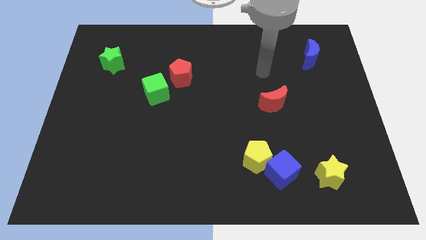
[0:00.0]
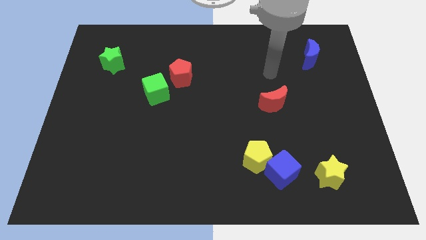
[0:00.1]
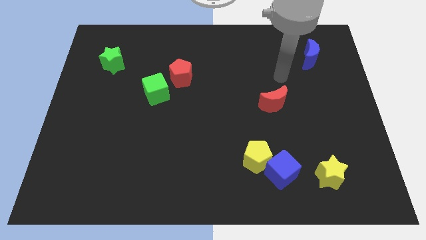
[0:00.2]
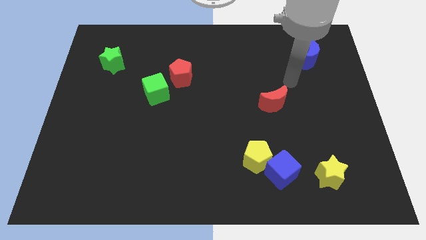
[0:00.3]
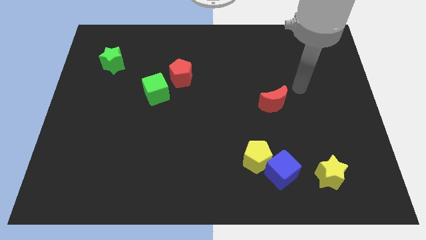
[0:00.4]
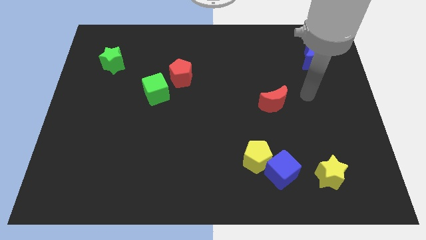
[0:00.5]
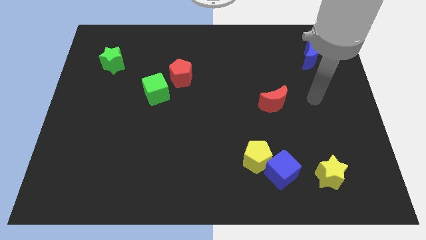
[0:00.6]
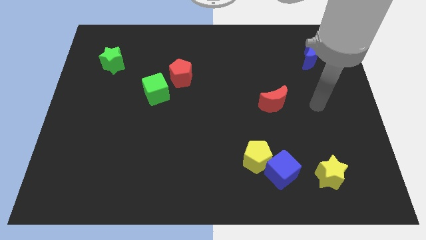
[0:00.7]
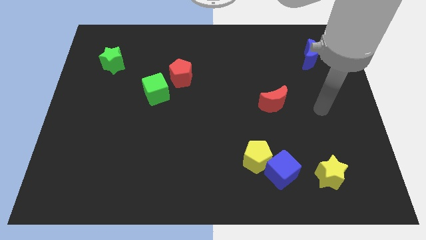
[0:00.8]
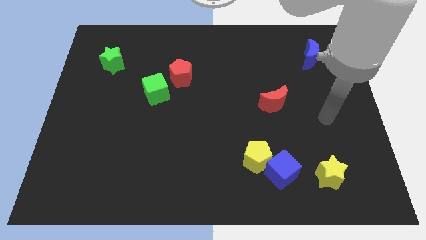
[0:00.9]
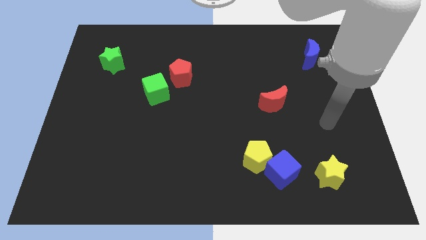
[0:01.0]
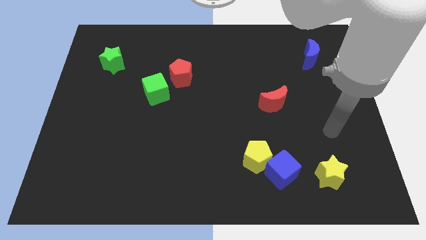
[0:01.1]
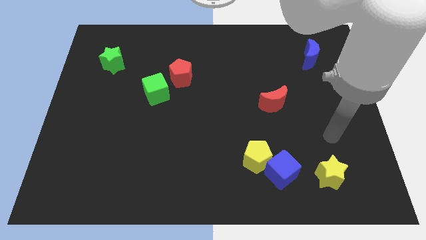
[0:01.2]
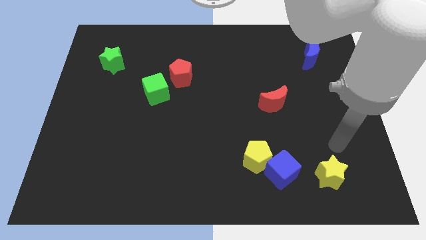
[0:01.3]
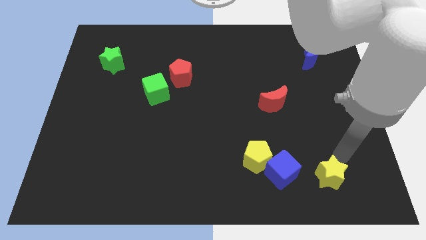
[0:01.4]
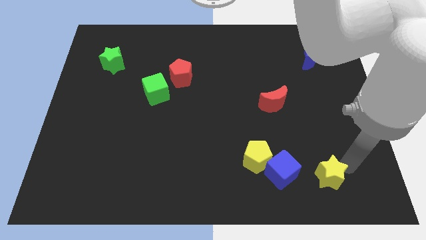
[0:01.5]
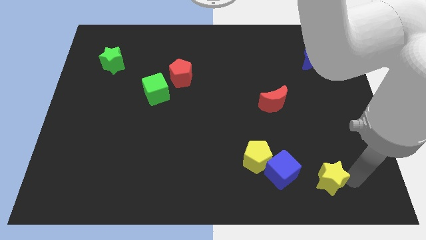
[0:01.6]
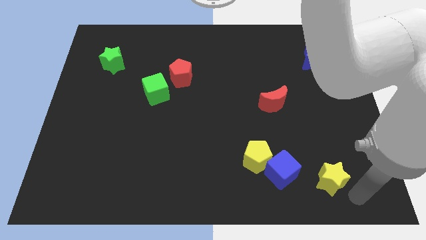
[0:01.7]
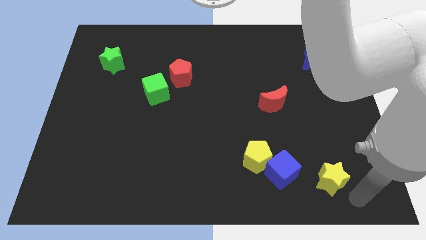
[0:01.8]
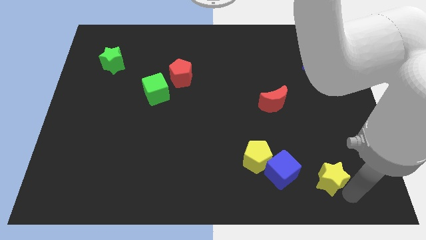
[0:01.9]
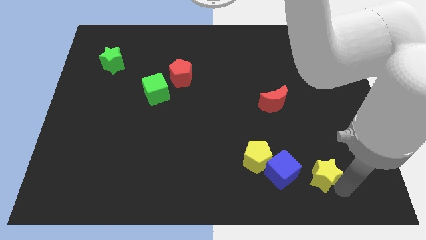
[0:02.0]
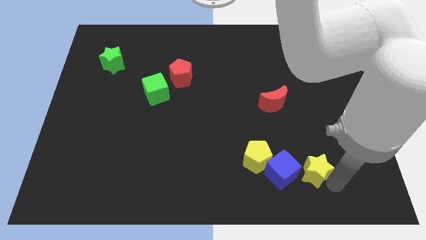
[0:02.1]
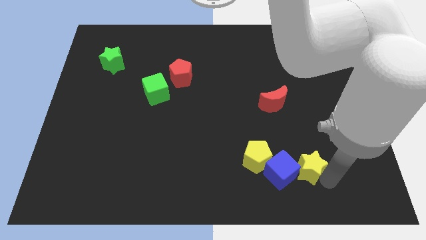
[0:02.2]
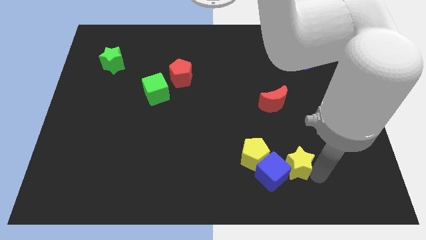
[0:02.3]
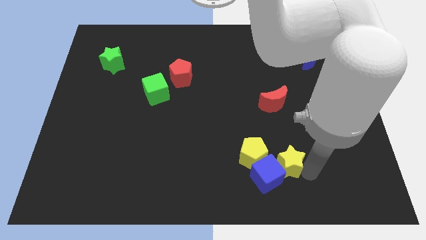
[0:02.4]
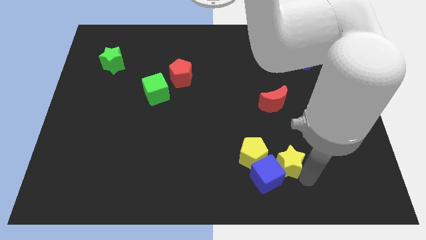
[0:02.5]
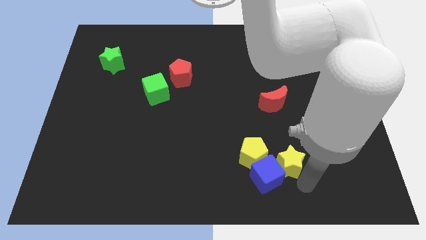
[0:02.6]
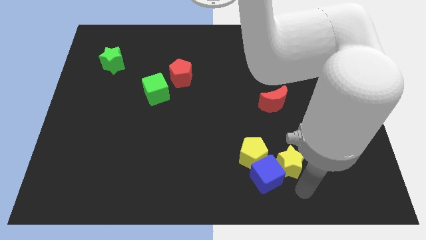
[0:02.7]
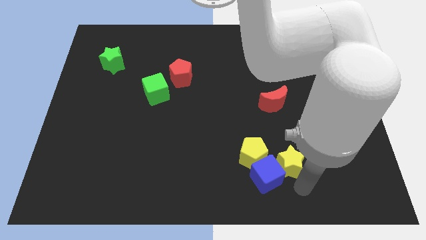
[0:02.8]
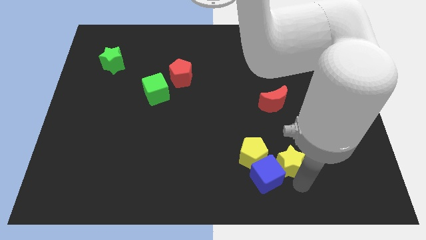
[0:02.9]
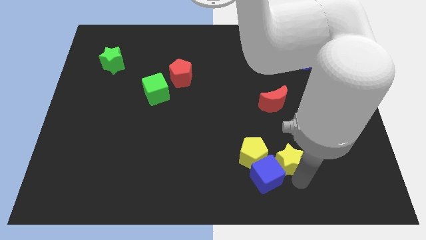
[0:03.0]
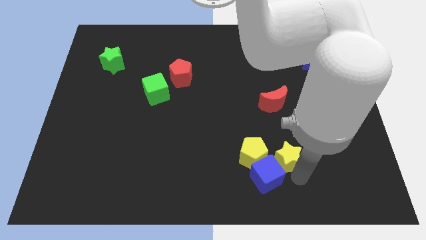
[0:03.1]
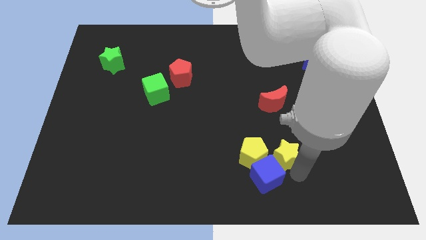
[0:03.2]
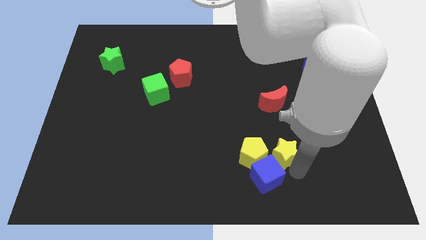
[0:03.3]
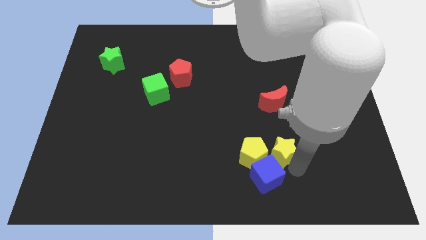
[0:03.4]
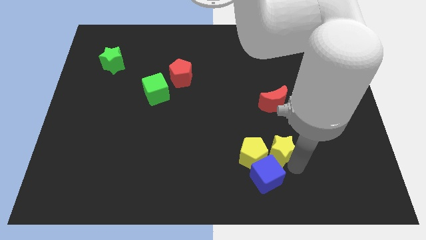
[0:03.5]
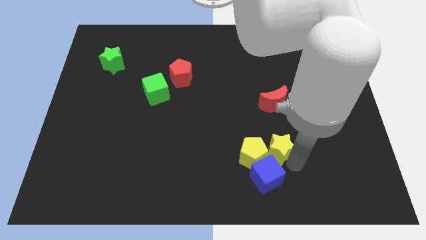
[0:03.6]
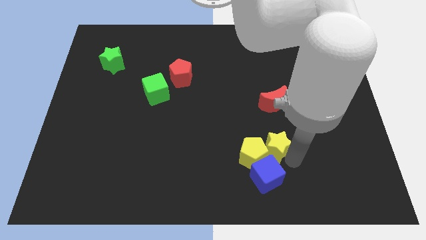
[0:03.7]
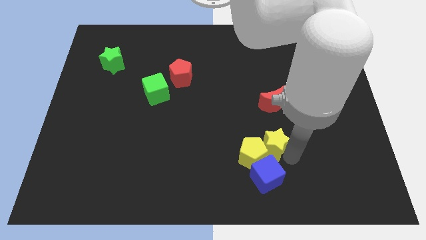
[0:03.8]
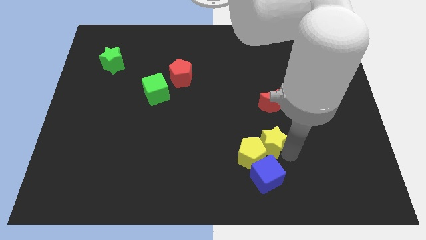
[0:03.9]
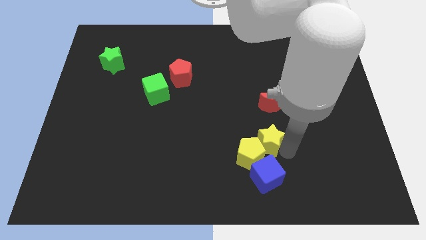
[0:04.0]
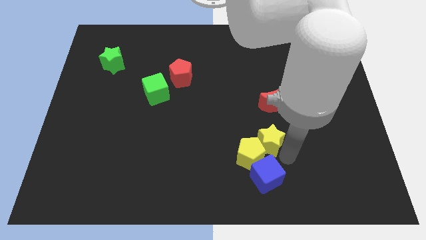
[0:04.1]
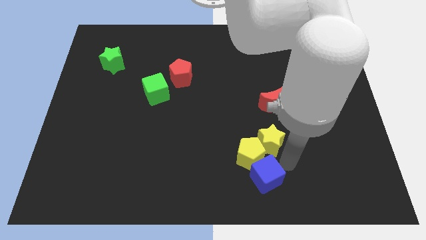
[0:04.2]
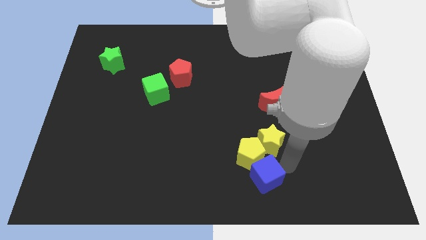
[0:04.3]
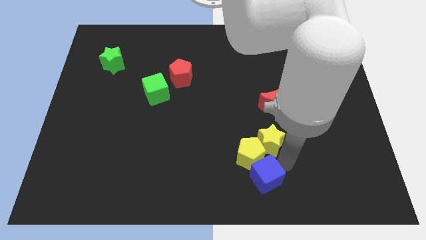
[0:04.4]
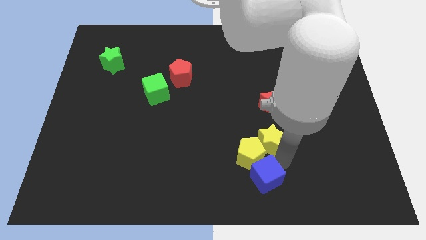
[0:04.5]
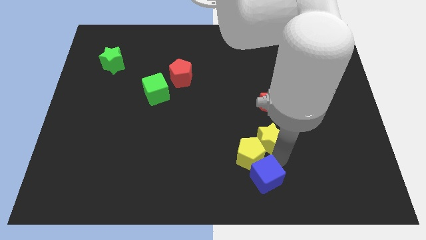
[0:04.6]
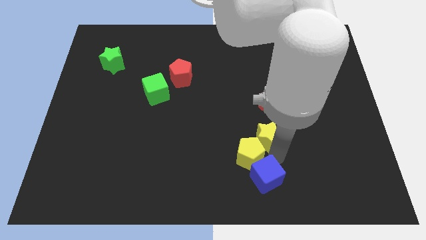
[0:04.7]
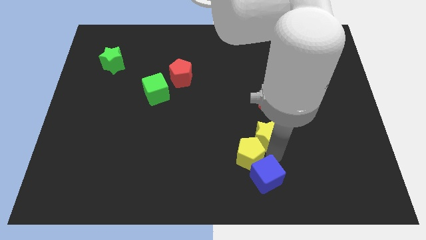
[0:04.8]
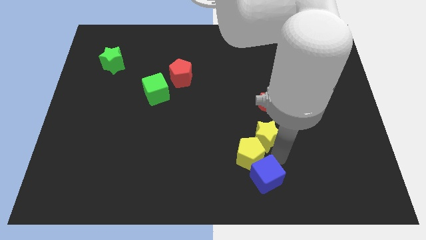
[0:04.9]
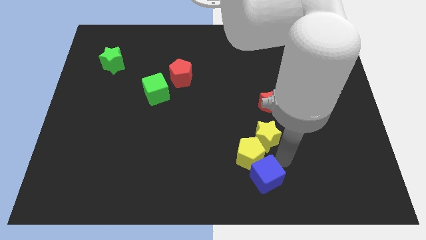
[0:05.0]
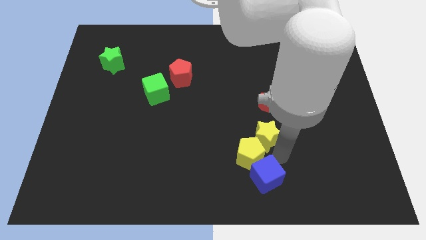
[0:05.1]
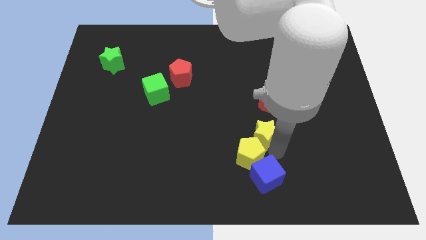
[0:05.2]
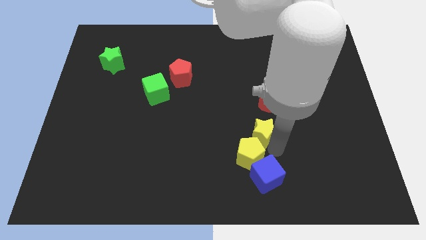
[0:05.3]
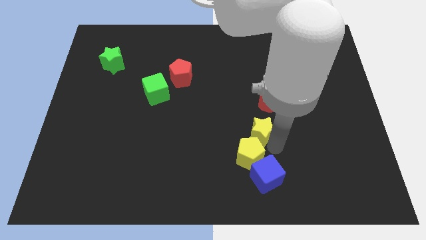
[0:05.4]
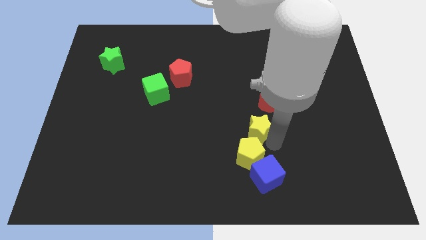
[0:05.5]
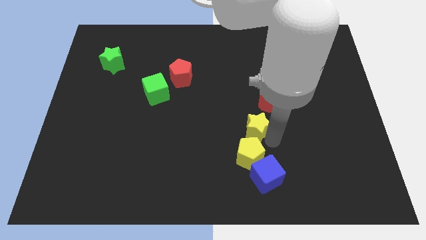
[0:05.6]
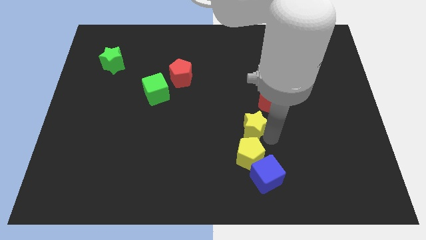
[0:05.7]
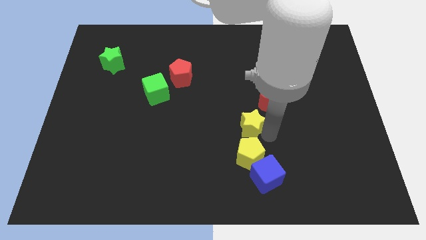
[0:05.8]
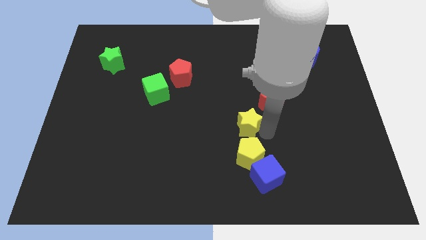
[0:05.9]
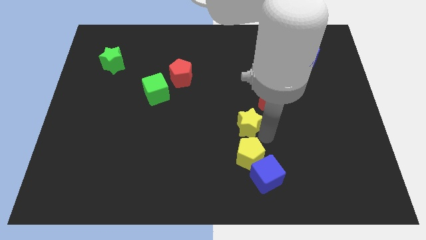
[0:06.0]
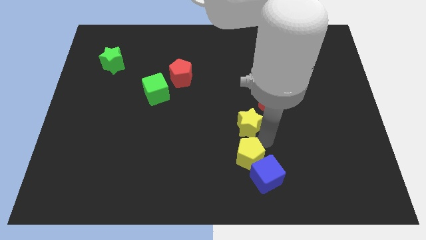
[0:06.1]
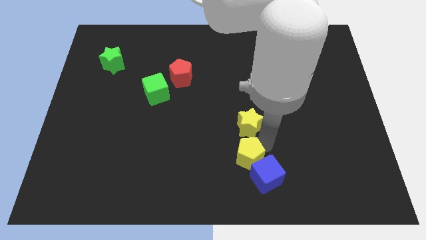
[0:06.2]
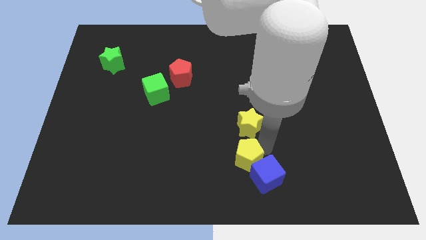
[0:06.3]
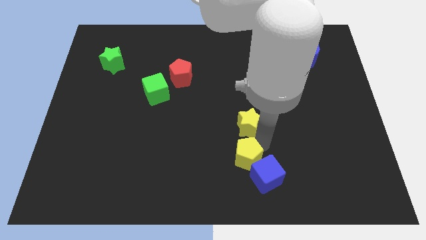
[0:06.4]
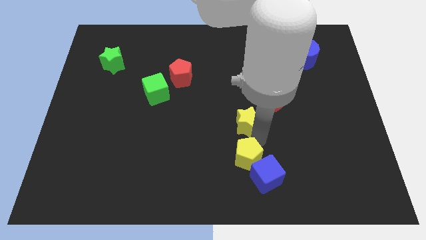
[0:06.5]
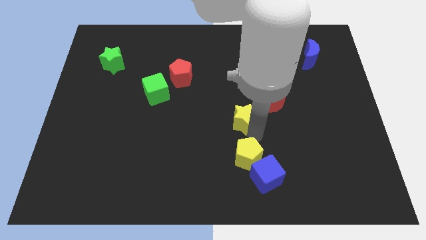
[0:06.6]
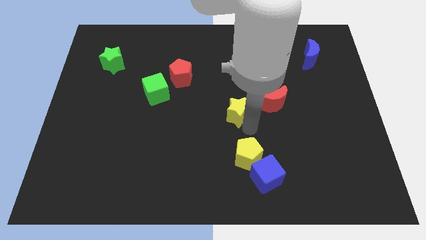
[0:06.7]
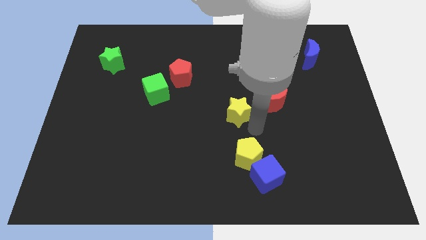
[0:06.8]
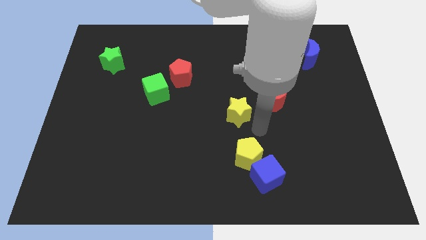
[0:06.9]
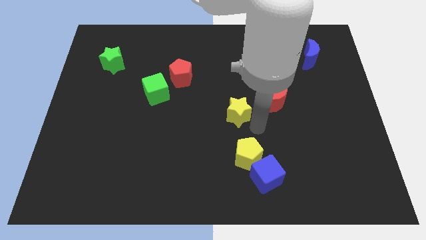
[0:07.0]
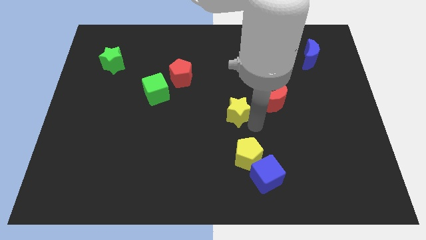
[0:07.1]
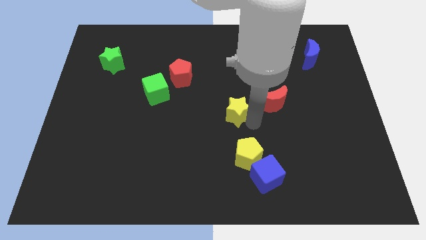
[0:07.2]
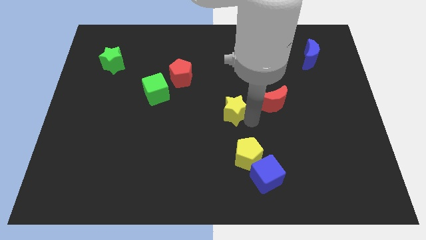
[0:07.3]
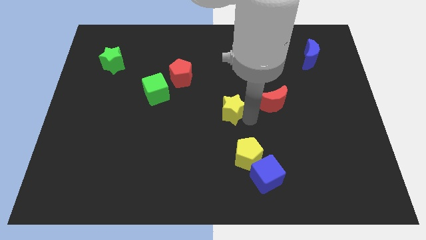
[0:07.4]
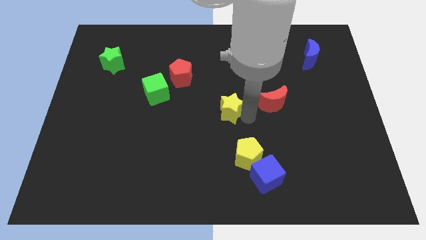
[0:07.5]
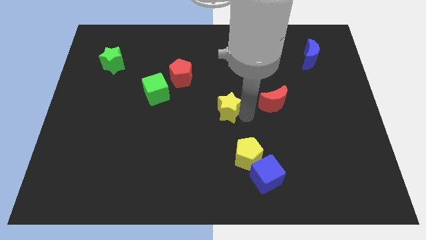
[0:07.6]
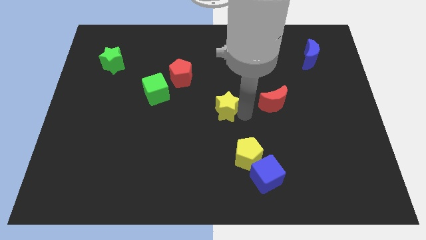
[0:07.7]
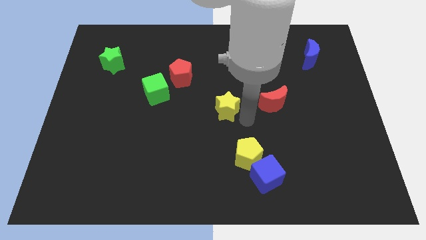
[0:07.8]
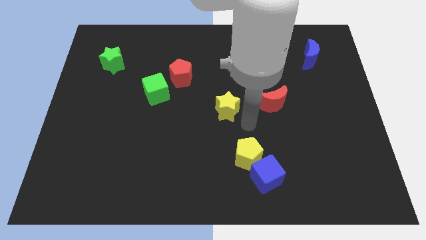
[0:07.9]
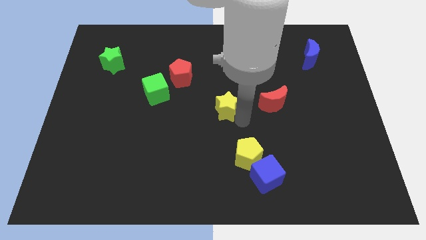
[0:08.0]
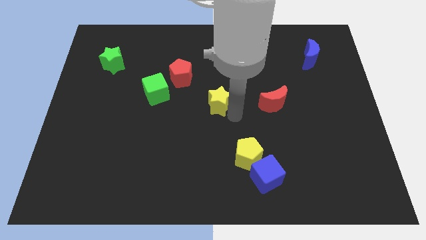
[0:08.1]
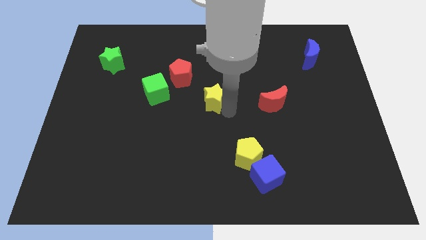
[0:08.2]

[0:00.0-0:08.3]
slide the yellow star to the right side of the green cube
